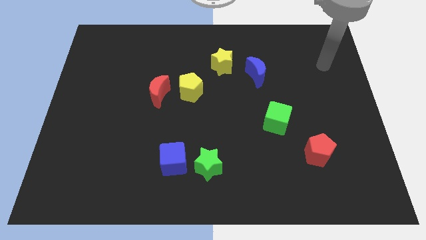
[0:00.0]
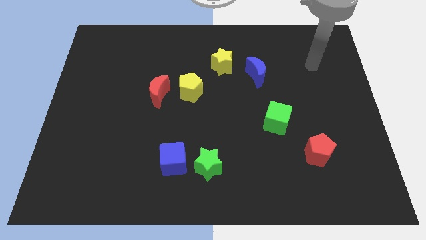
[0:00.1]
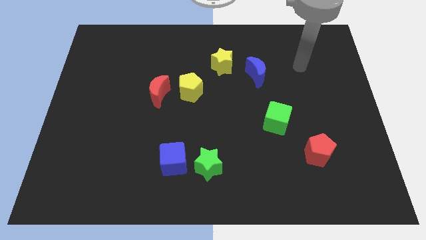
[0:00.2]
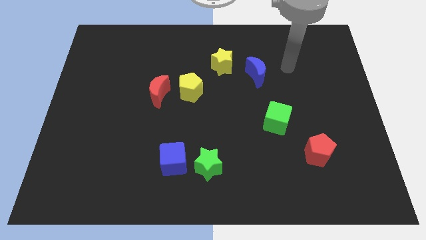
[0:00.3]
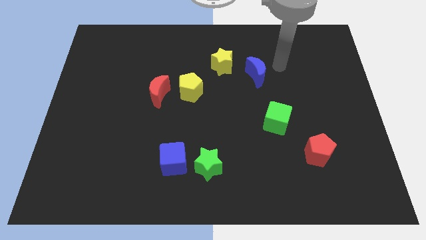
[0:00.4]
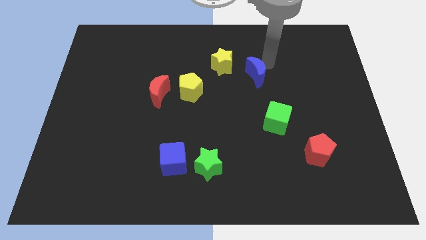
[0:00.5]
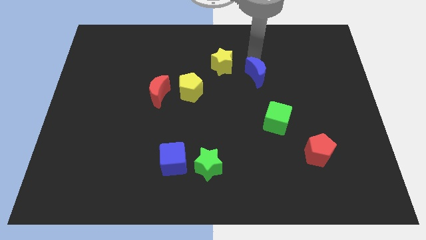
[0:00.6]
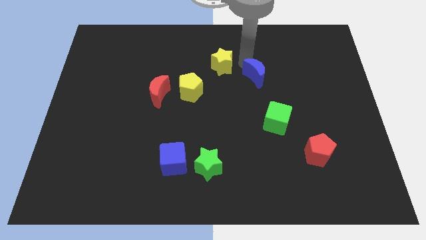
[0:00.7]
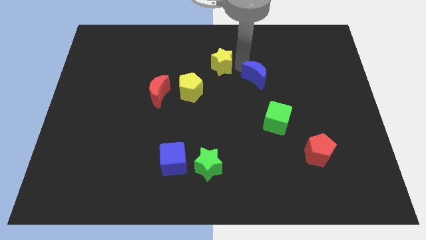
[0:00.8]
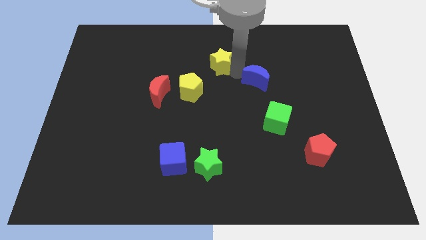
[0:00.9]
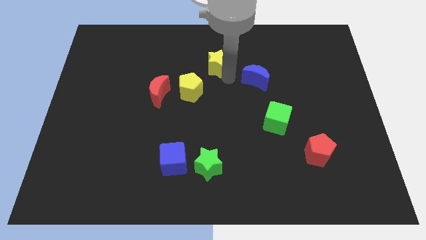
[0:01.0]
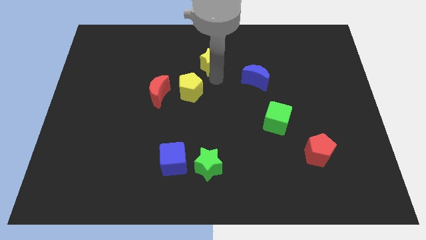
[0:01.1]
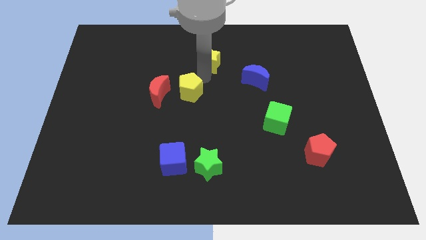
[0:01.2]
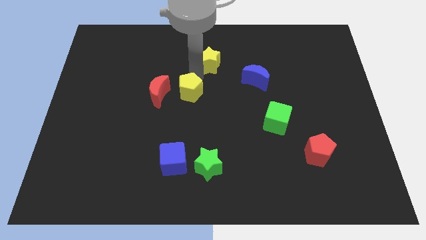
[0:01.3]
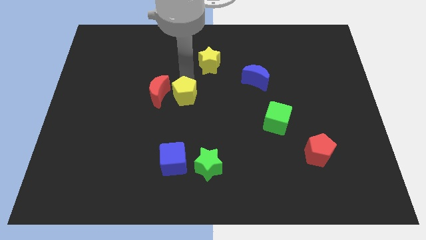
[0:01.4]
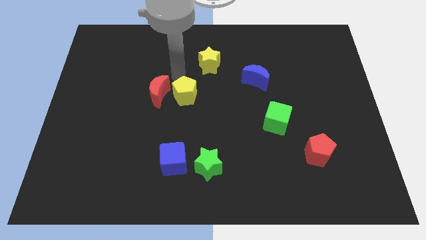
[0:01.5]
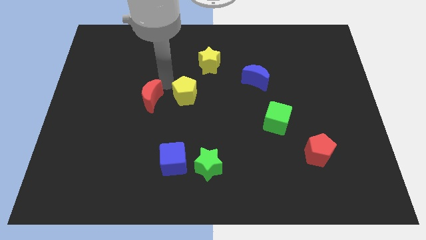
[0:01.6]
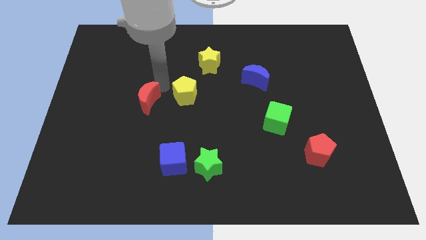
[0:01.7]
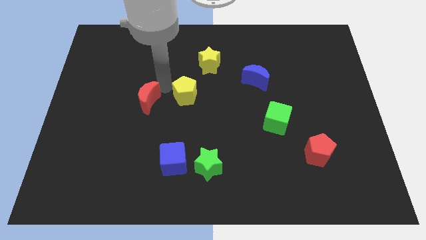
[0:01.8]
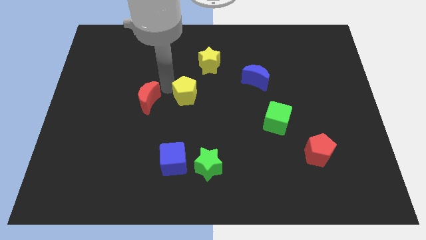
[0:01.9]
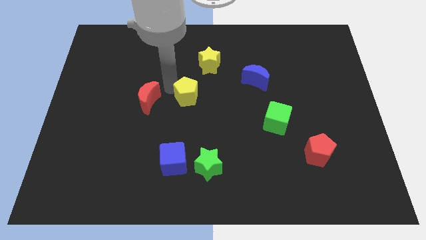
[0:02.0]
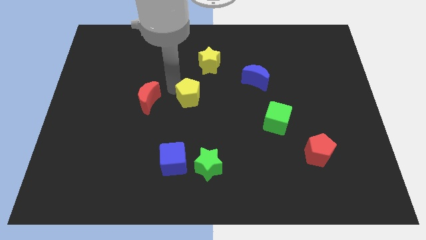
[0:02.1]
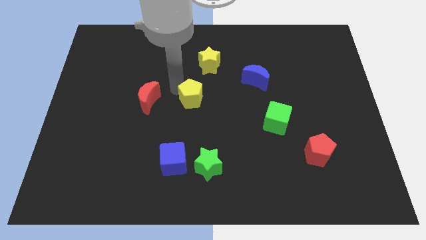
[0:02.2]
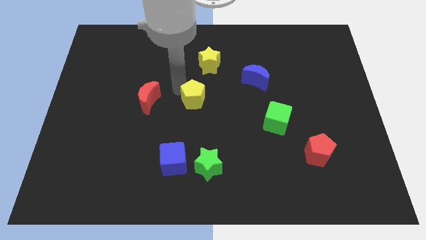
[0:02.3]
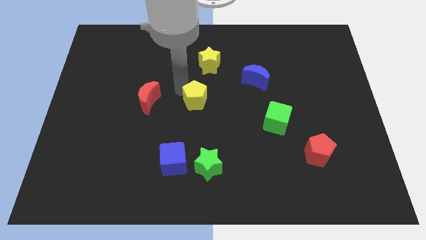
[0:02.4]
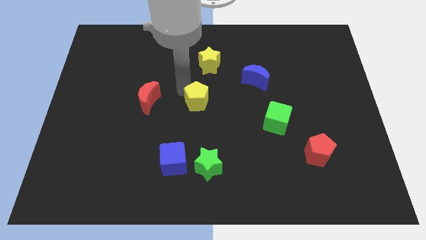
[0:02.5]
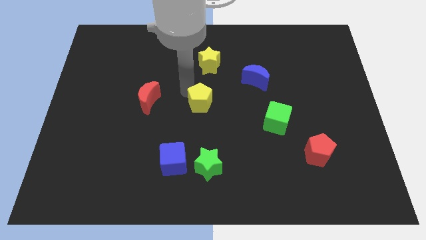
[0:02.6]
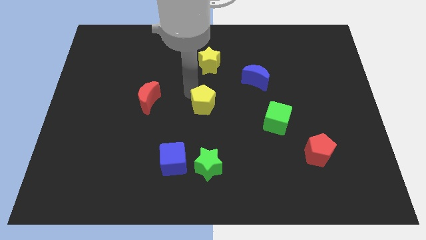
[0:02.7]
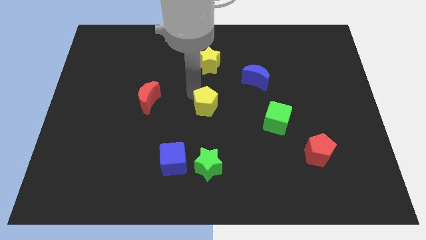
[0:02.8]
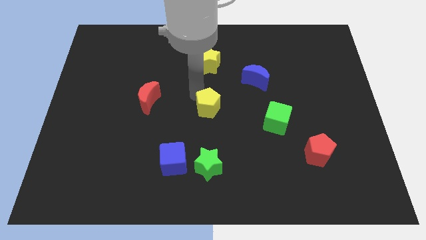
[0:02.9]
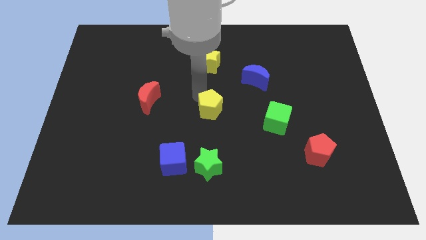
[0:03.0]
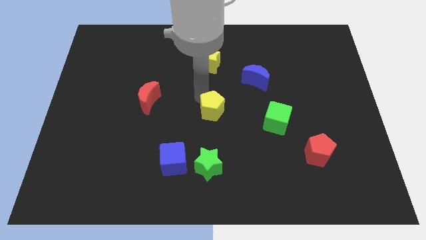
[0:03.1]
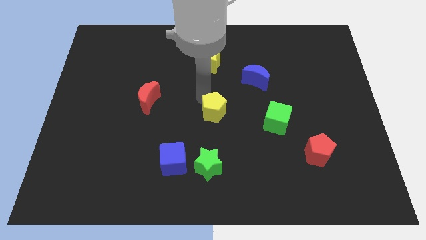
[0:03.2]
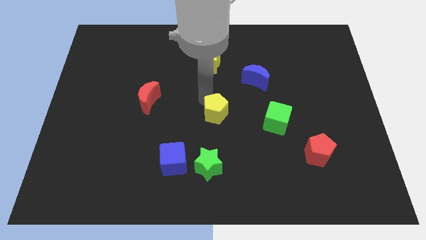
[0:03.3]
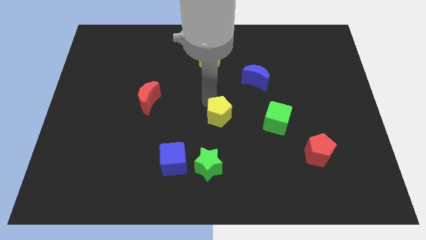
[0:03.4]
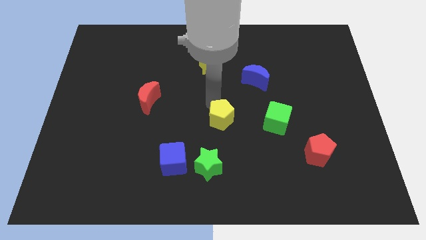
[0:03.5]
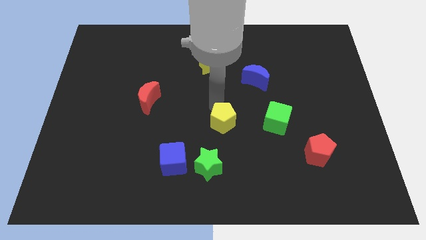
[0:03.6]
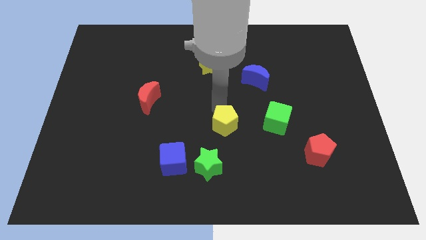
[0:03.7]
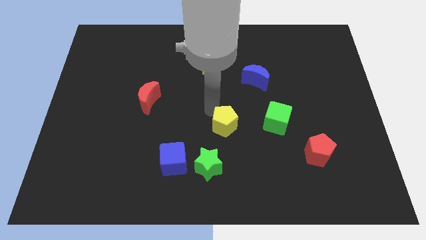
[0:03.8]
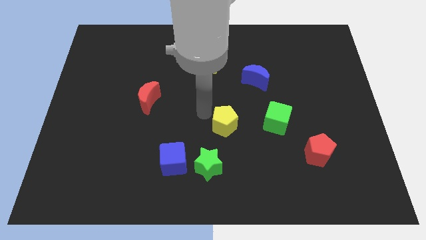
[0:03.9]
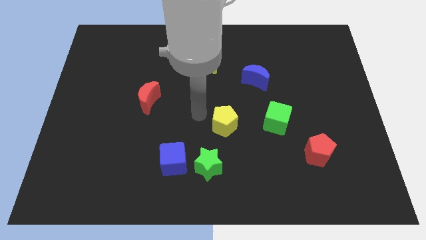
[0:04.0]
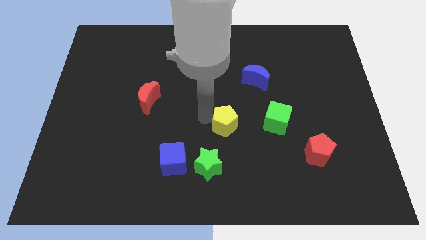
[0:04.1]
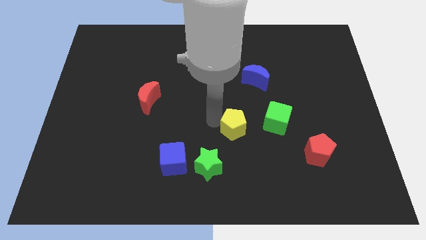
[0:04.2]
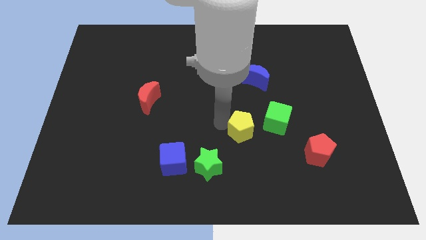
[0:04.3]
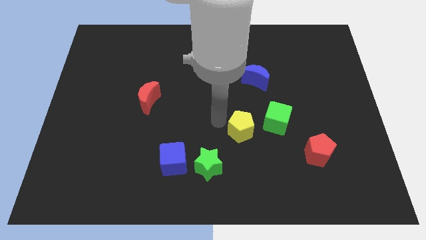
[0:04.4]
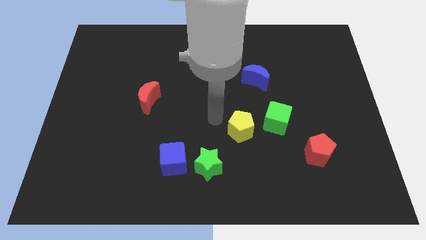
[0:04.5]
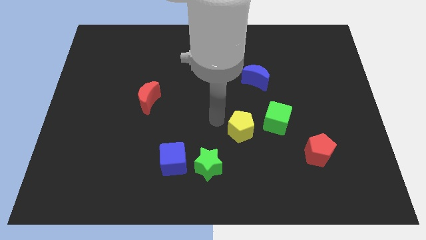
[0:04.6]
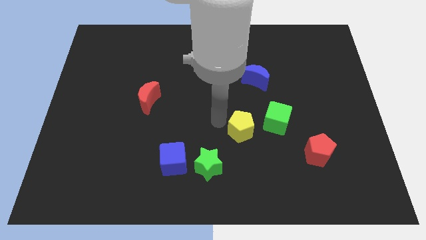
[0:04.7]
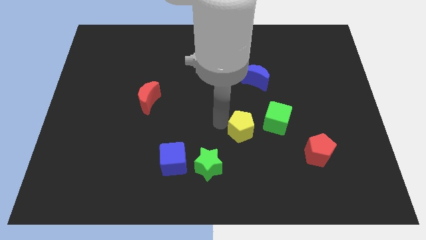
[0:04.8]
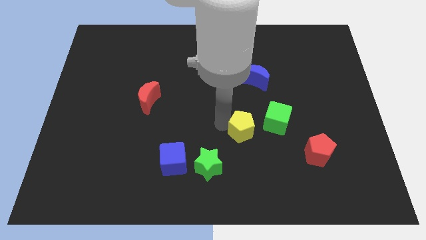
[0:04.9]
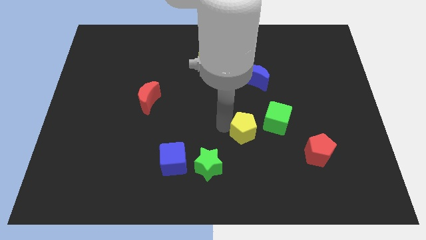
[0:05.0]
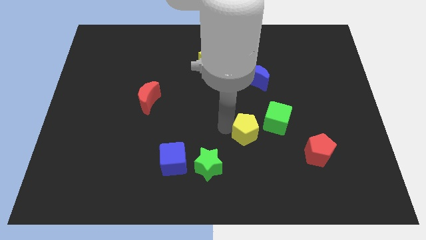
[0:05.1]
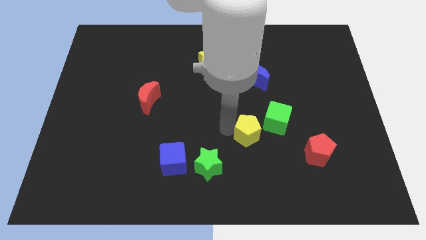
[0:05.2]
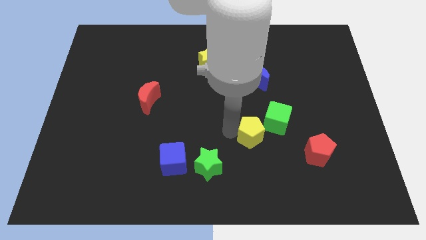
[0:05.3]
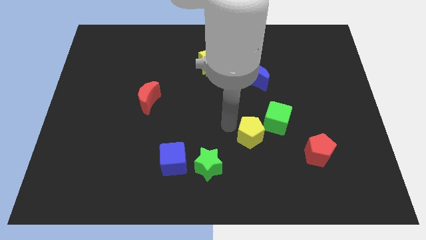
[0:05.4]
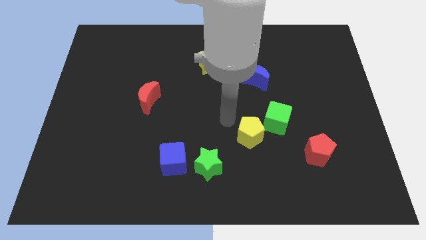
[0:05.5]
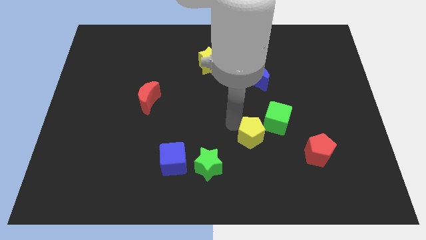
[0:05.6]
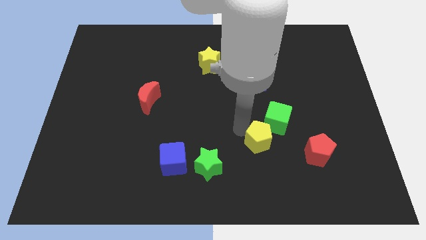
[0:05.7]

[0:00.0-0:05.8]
push the yellow pentagon downwards and to the right diagonally

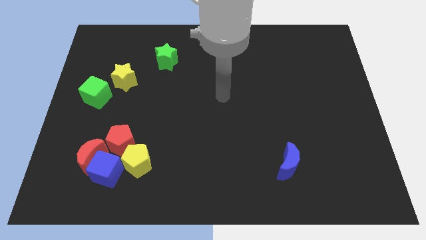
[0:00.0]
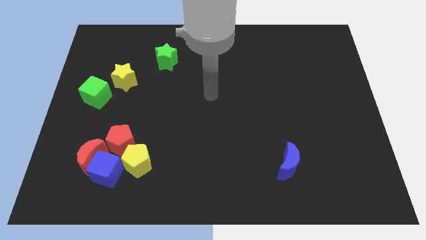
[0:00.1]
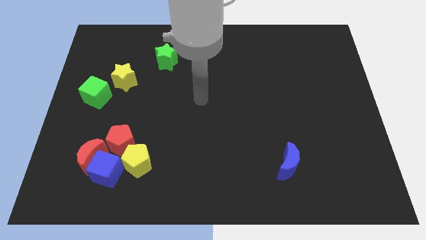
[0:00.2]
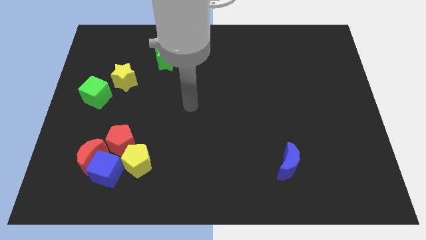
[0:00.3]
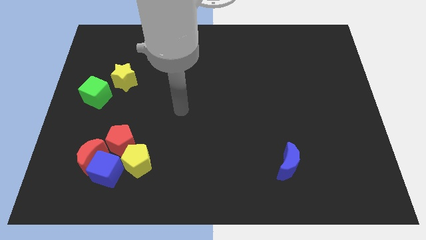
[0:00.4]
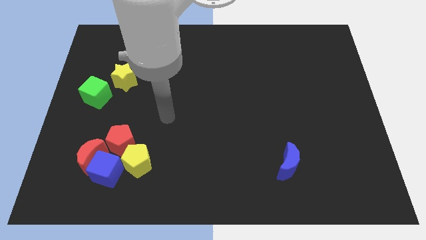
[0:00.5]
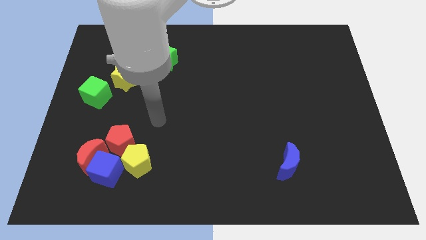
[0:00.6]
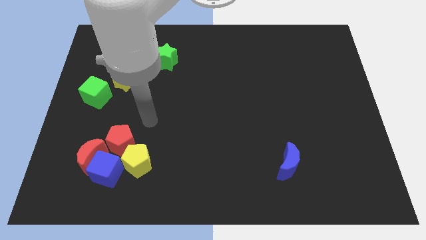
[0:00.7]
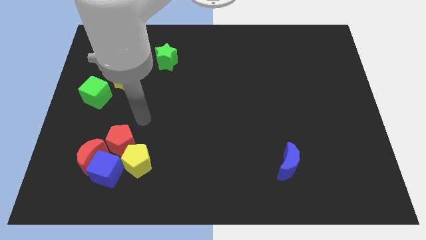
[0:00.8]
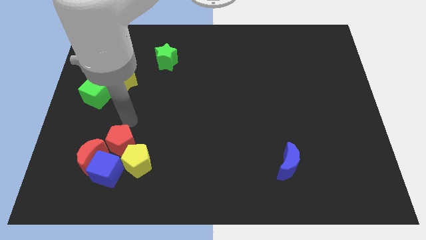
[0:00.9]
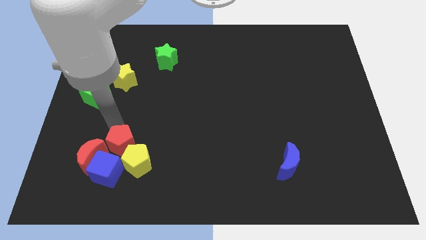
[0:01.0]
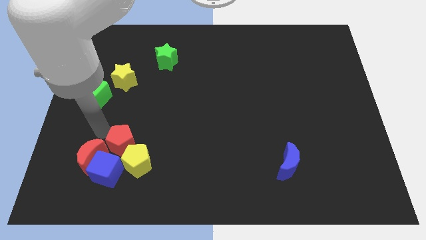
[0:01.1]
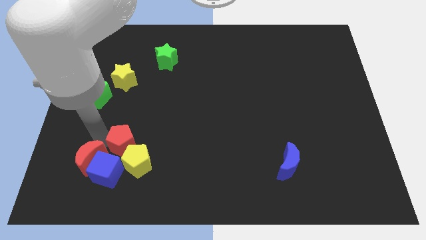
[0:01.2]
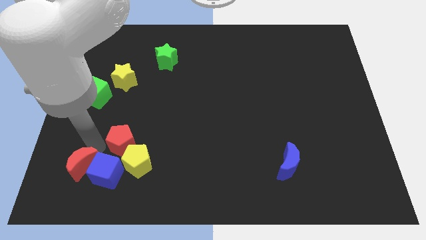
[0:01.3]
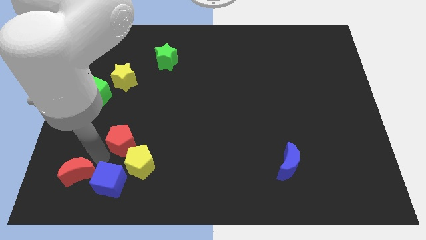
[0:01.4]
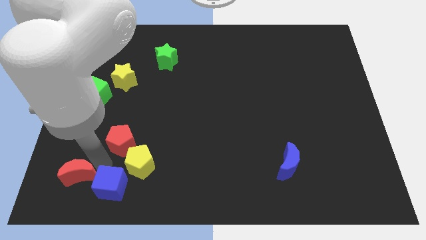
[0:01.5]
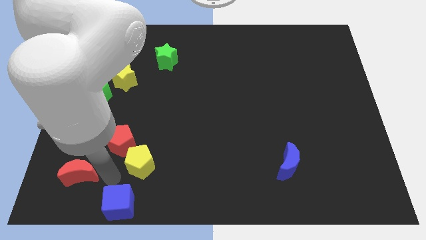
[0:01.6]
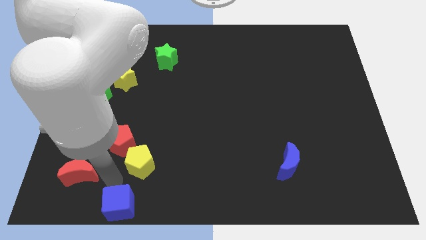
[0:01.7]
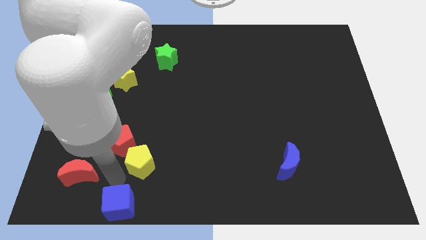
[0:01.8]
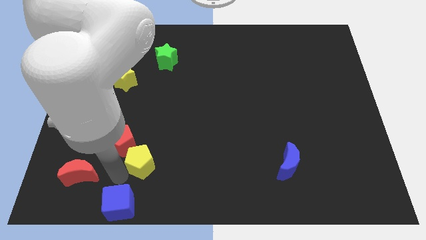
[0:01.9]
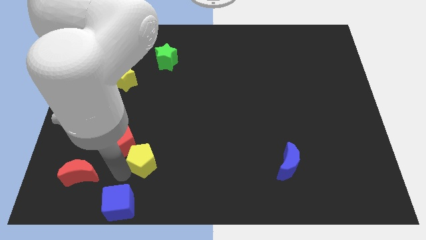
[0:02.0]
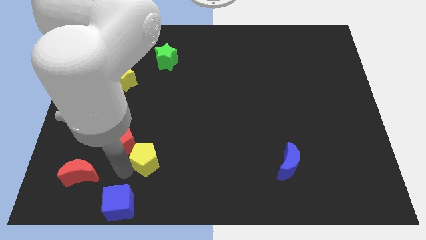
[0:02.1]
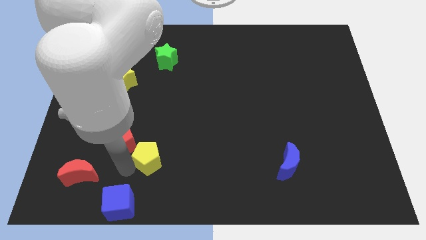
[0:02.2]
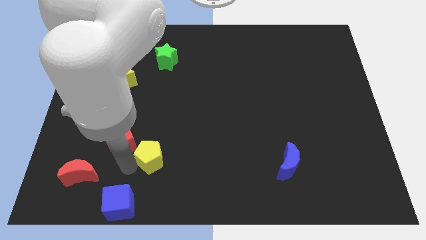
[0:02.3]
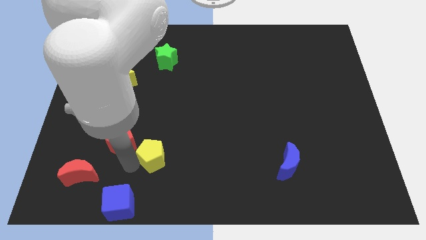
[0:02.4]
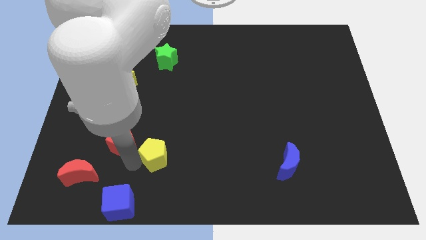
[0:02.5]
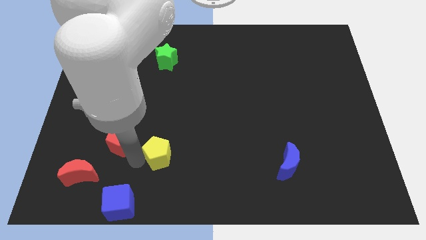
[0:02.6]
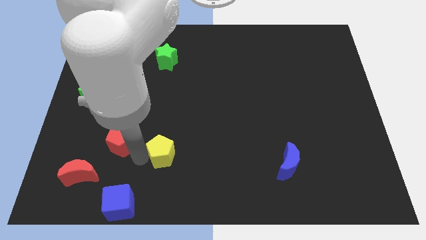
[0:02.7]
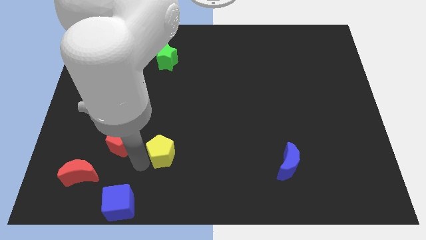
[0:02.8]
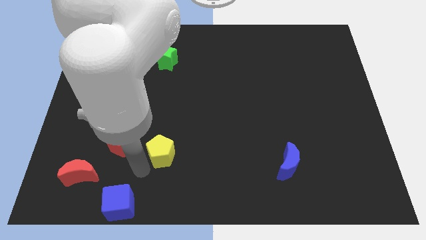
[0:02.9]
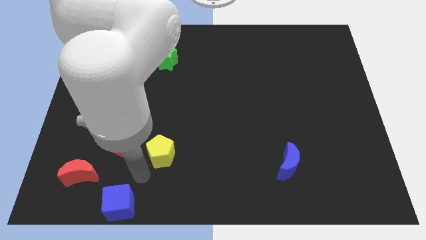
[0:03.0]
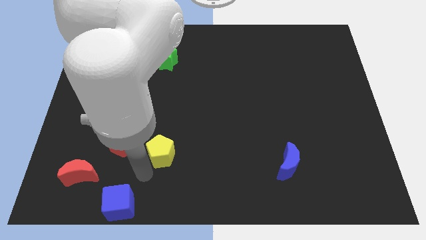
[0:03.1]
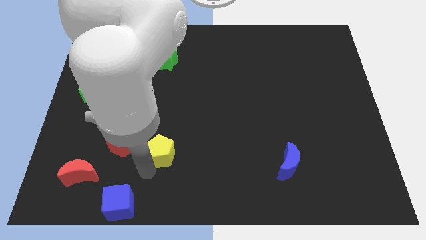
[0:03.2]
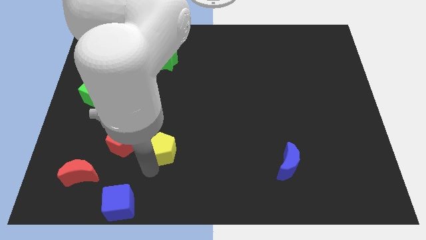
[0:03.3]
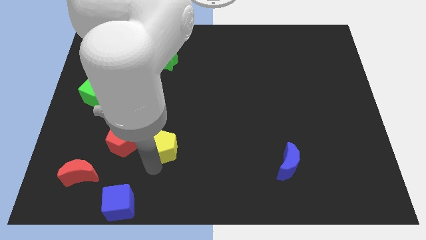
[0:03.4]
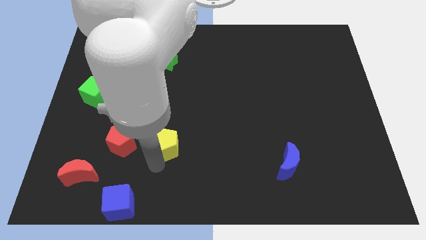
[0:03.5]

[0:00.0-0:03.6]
push the yellow pentagon a little bit up and to the right
